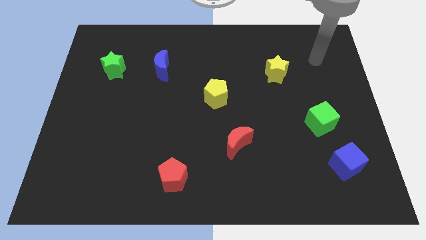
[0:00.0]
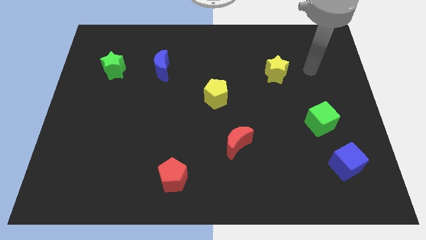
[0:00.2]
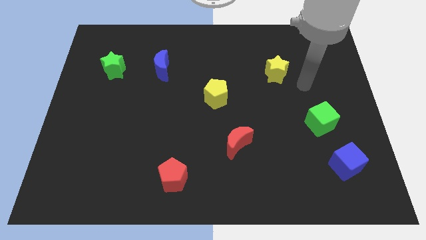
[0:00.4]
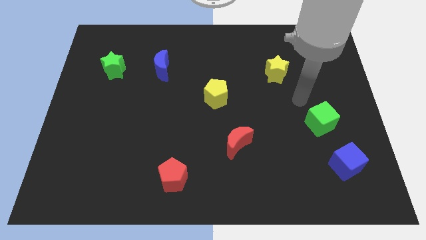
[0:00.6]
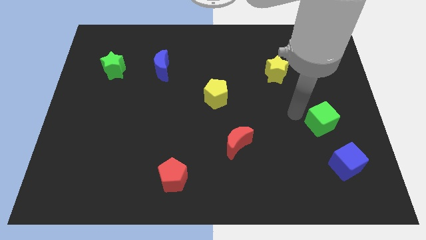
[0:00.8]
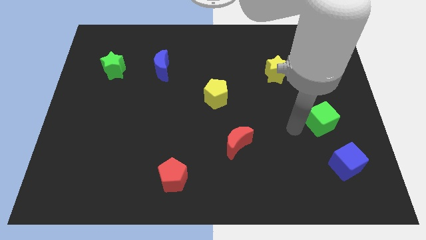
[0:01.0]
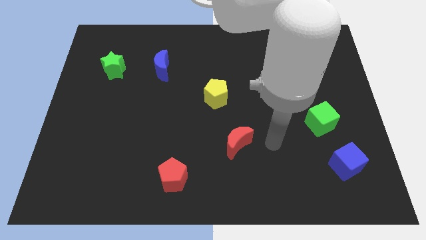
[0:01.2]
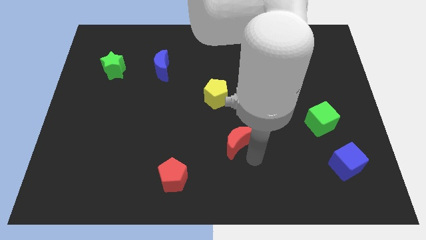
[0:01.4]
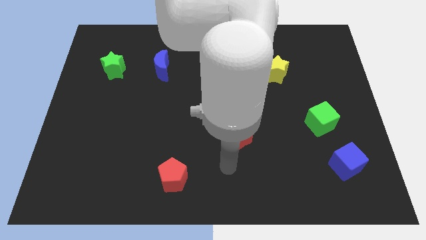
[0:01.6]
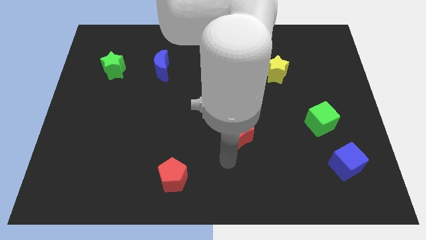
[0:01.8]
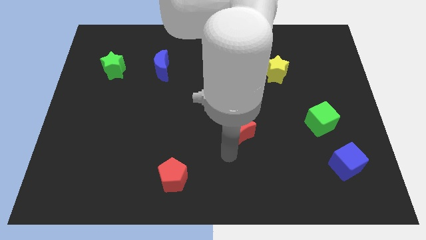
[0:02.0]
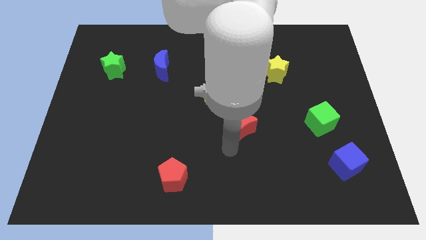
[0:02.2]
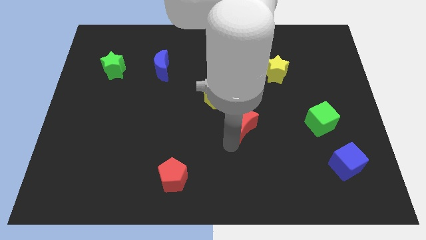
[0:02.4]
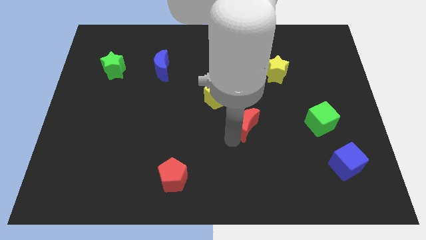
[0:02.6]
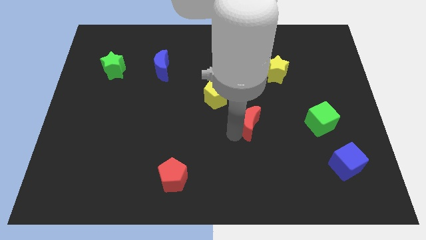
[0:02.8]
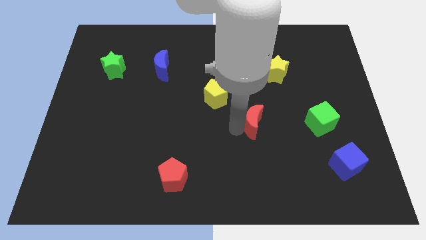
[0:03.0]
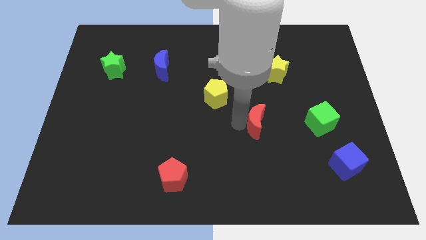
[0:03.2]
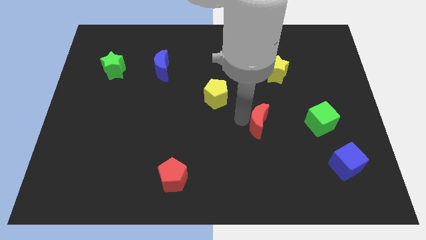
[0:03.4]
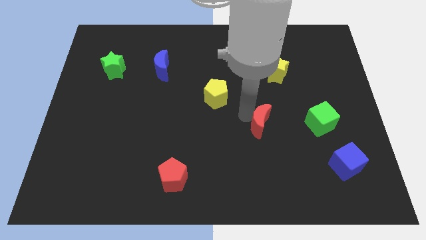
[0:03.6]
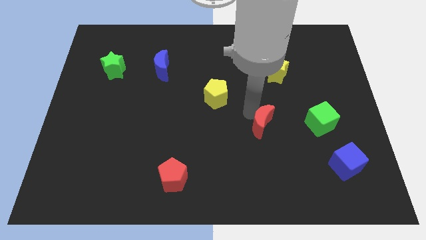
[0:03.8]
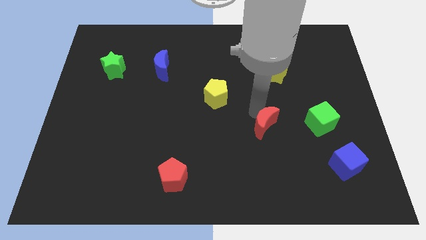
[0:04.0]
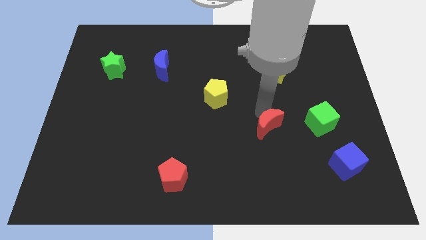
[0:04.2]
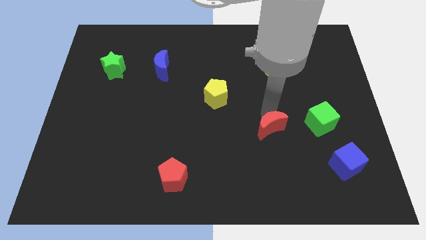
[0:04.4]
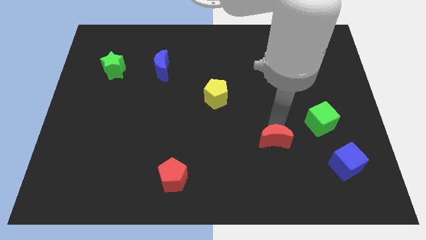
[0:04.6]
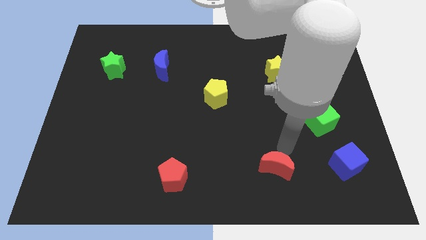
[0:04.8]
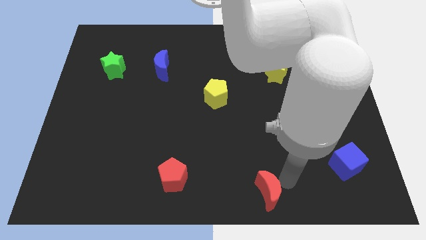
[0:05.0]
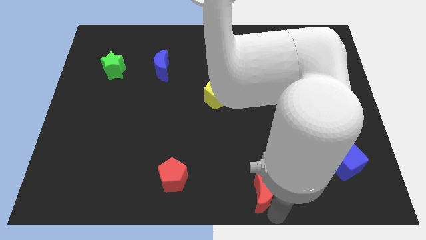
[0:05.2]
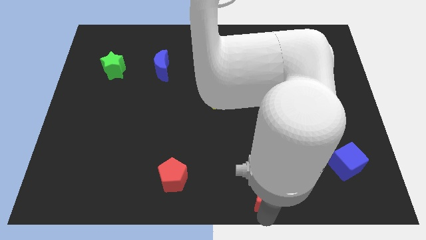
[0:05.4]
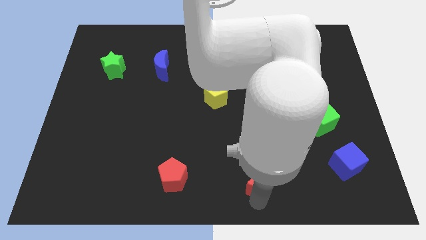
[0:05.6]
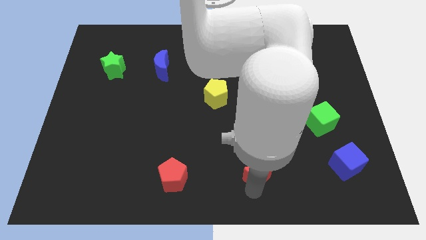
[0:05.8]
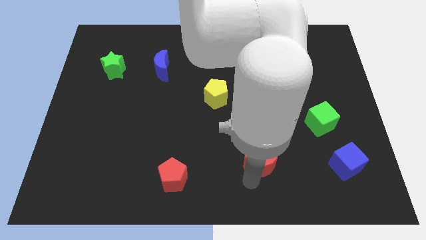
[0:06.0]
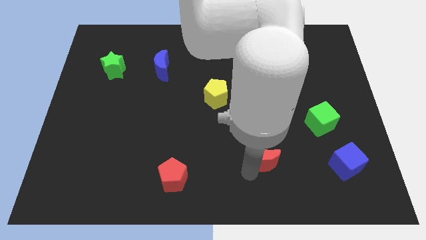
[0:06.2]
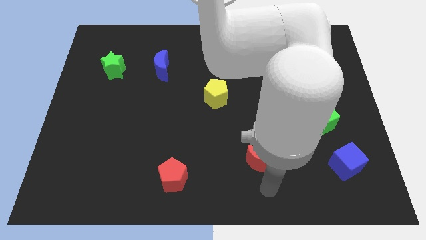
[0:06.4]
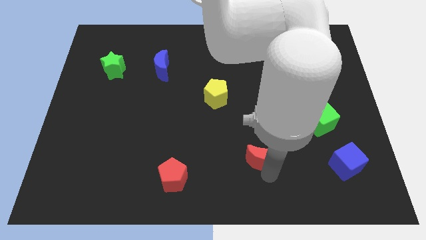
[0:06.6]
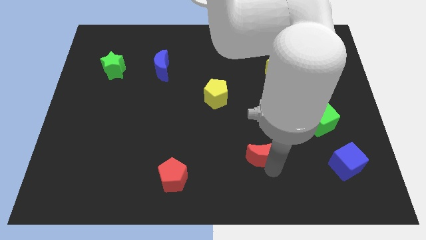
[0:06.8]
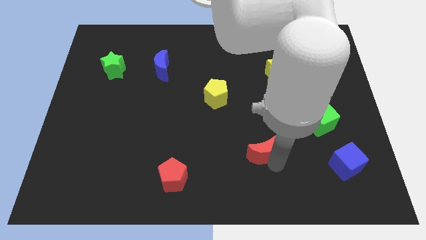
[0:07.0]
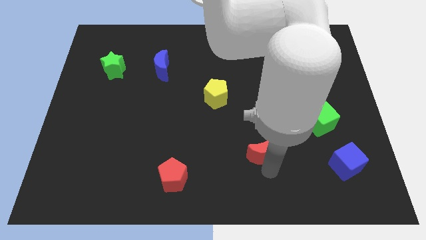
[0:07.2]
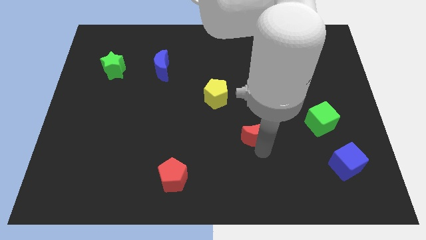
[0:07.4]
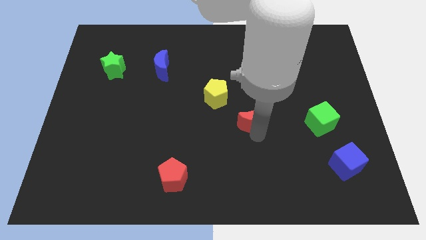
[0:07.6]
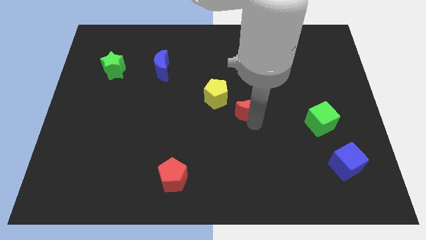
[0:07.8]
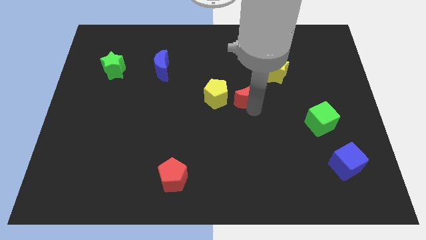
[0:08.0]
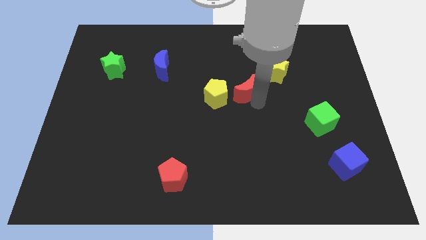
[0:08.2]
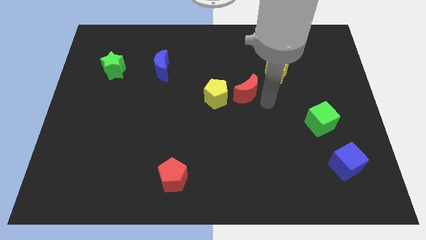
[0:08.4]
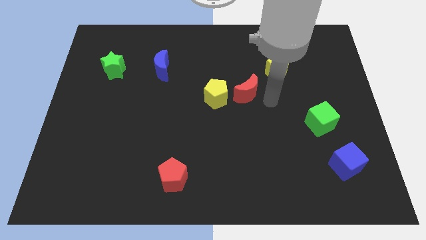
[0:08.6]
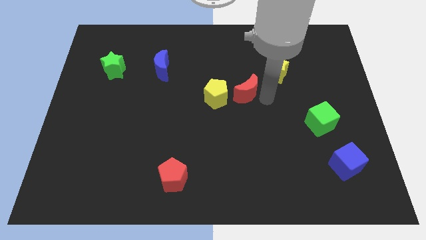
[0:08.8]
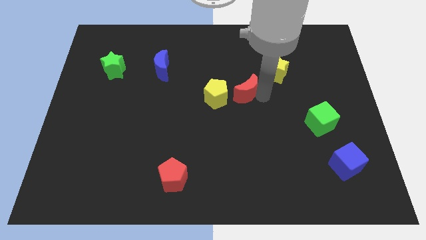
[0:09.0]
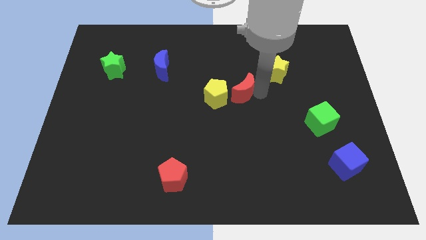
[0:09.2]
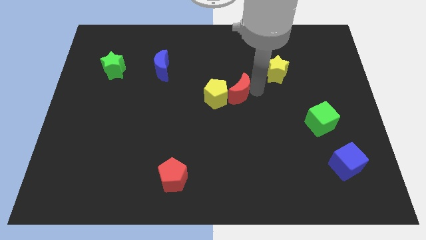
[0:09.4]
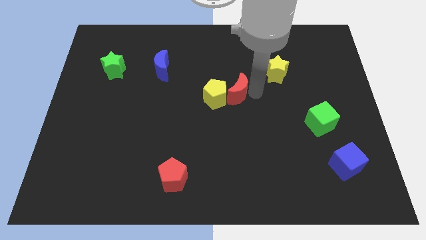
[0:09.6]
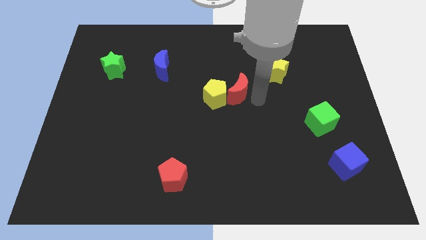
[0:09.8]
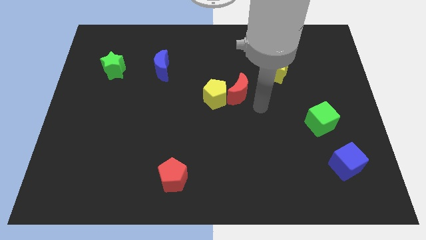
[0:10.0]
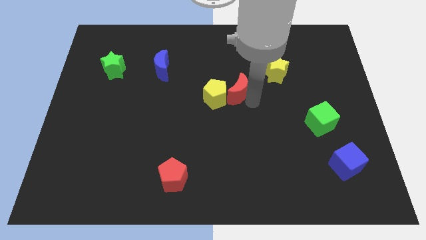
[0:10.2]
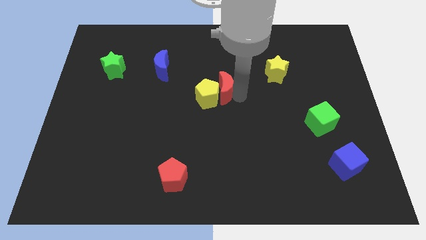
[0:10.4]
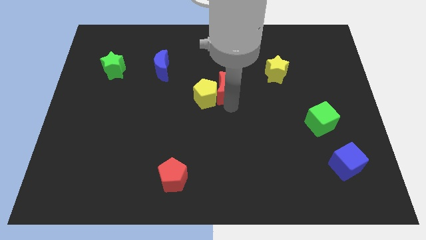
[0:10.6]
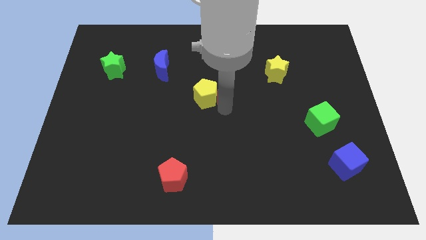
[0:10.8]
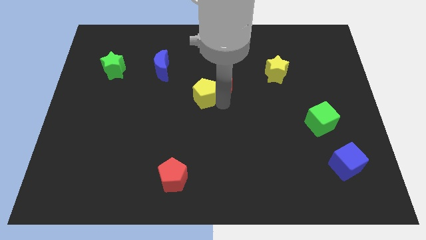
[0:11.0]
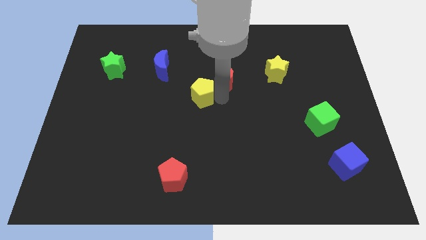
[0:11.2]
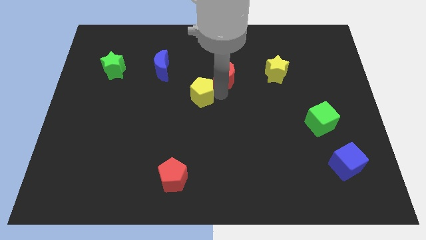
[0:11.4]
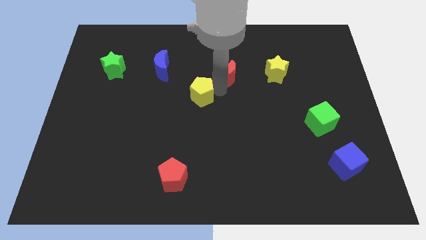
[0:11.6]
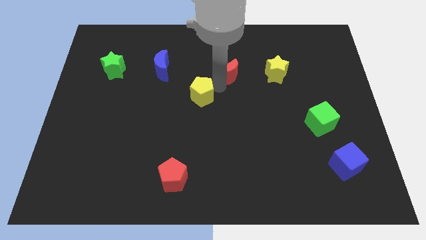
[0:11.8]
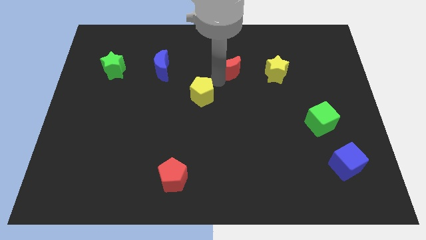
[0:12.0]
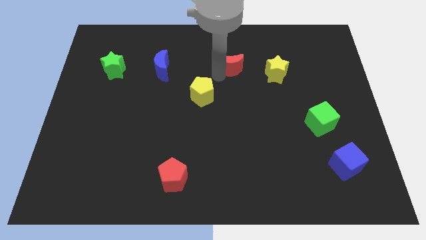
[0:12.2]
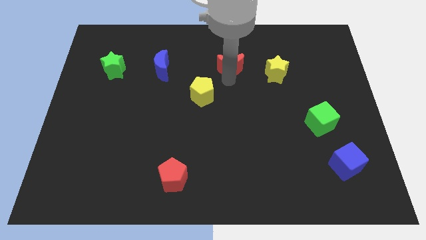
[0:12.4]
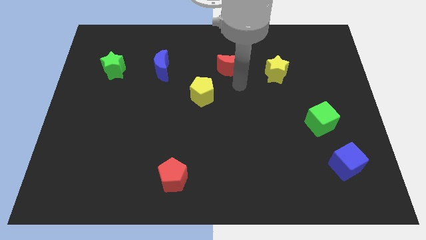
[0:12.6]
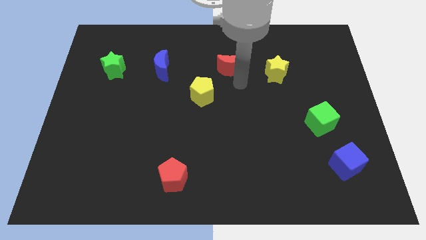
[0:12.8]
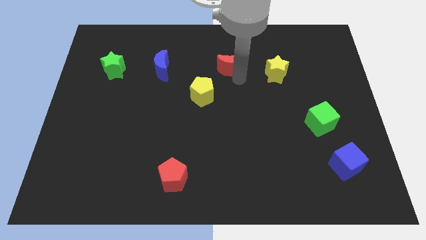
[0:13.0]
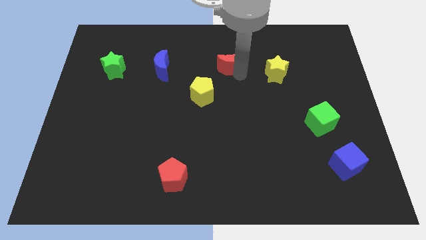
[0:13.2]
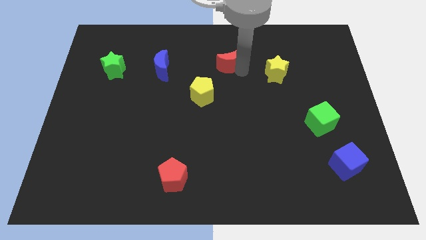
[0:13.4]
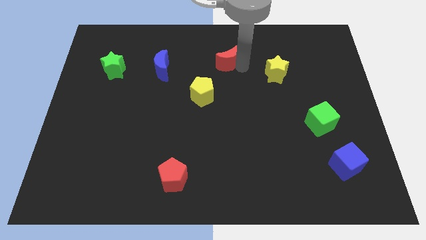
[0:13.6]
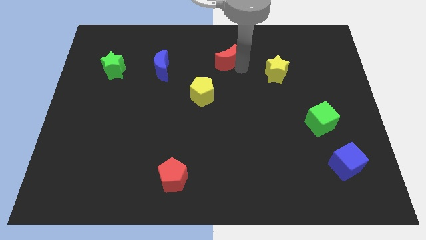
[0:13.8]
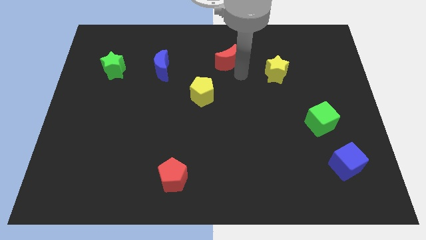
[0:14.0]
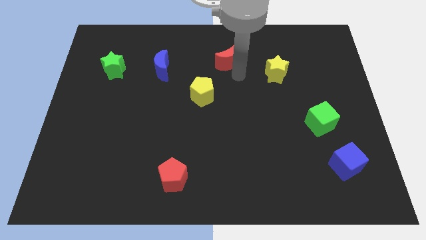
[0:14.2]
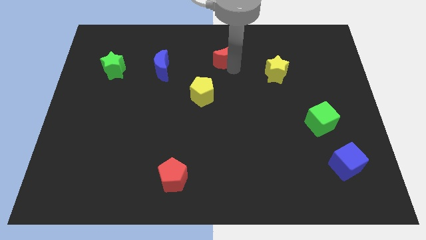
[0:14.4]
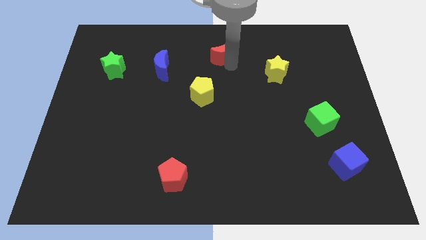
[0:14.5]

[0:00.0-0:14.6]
move the red moon to the top

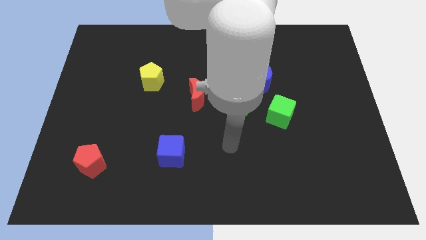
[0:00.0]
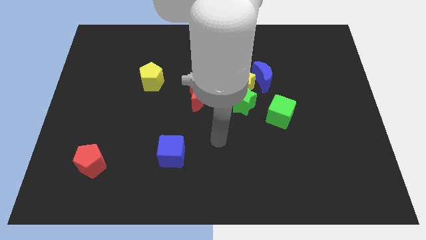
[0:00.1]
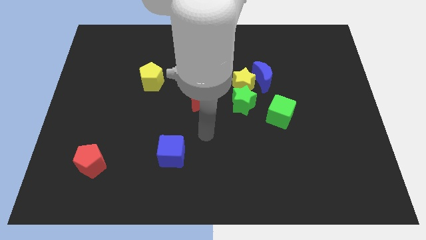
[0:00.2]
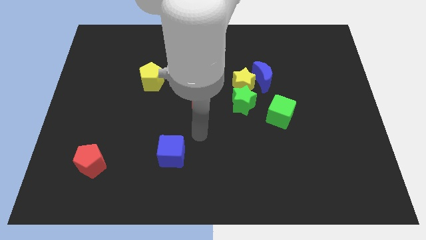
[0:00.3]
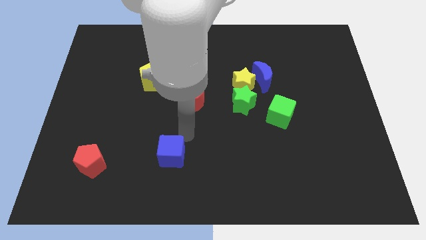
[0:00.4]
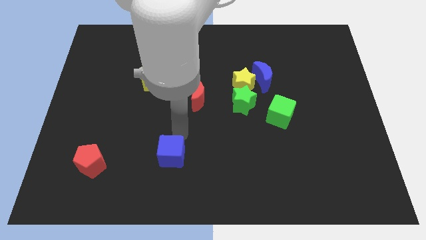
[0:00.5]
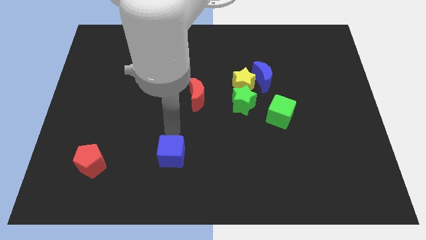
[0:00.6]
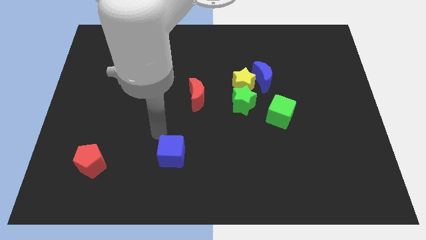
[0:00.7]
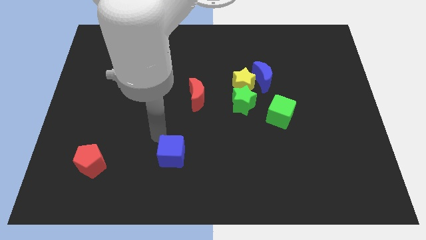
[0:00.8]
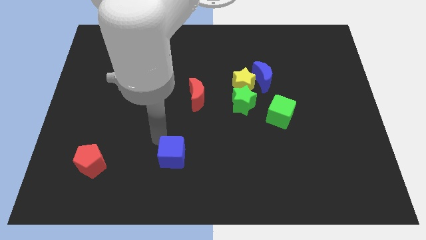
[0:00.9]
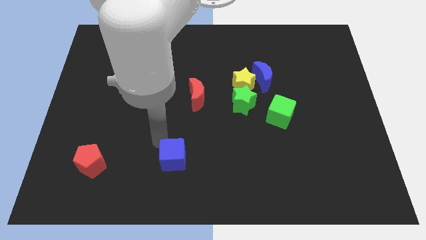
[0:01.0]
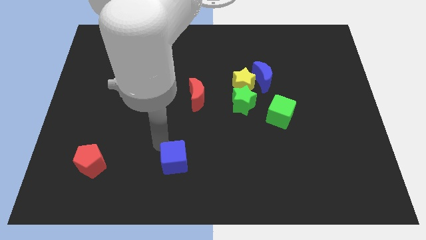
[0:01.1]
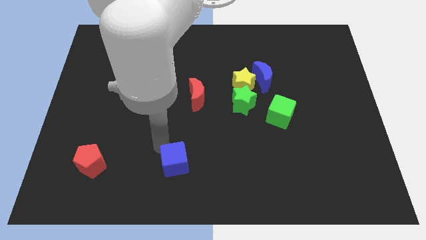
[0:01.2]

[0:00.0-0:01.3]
push the blue cube to the bottom side
